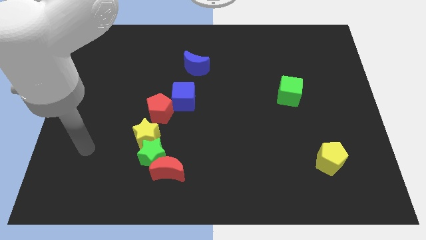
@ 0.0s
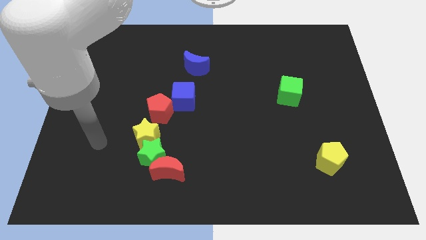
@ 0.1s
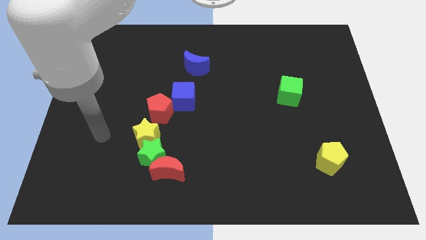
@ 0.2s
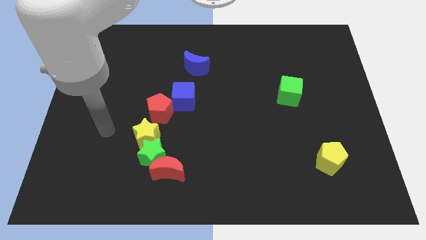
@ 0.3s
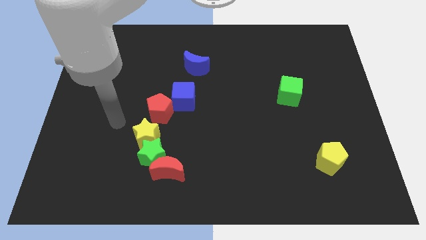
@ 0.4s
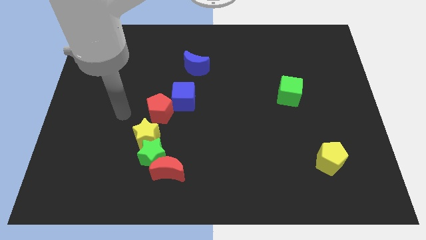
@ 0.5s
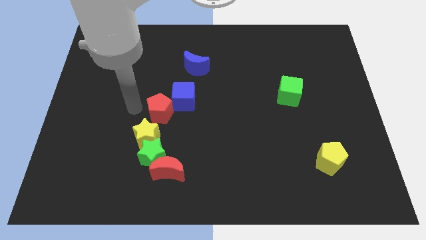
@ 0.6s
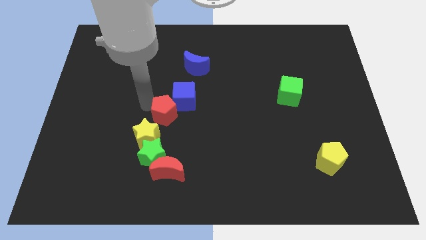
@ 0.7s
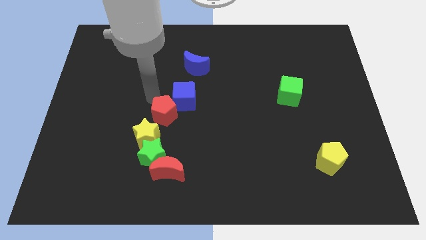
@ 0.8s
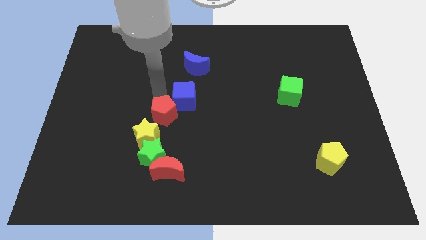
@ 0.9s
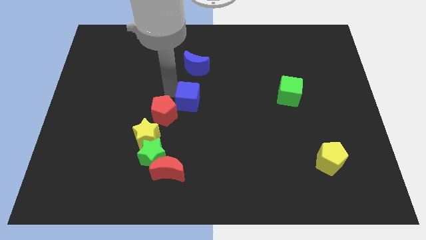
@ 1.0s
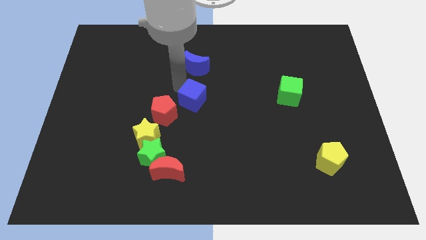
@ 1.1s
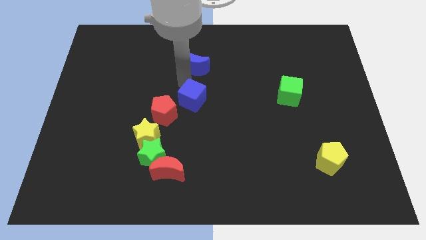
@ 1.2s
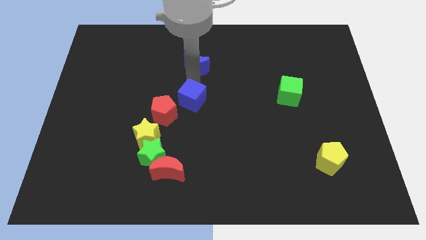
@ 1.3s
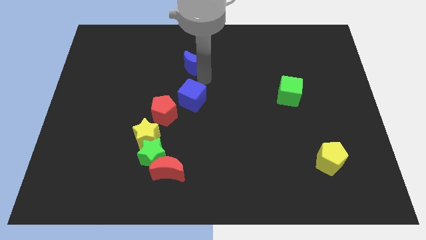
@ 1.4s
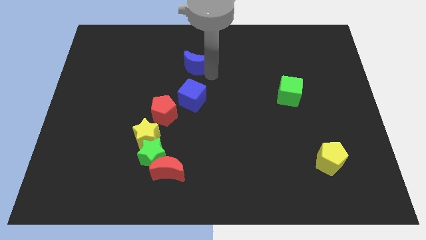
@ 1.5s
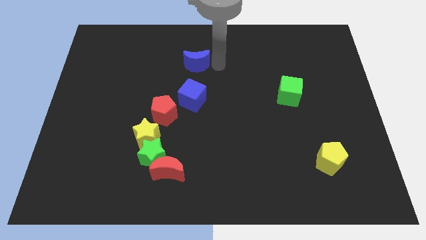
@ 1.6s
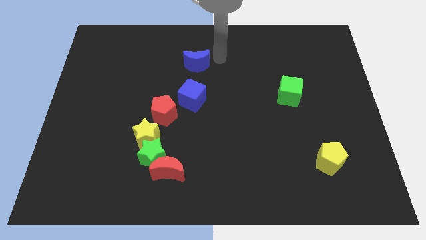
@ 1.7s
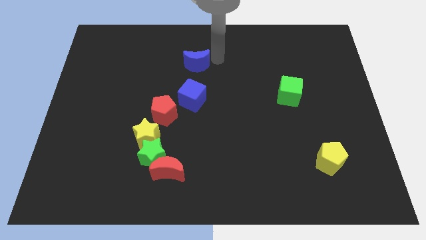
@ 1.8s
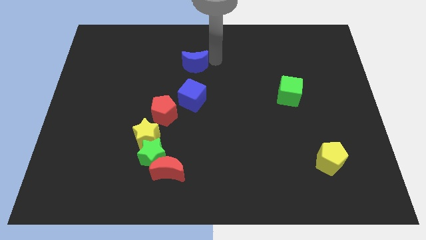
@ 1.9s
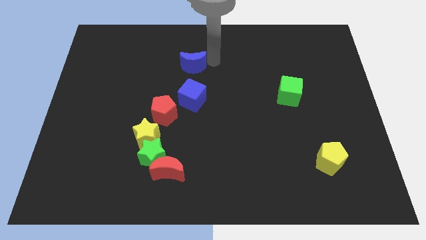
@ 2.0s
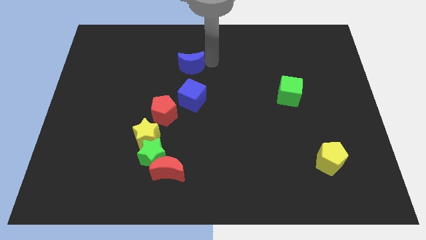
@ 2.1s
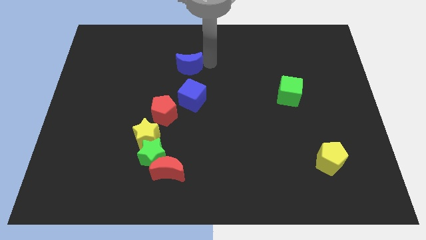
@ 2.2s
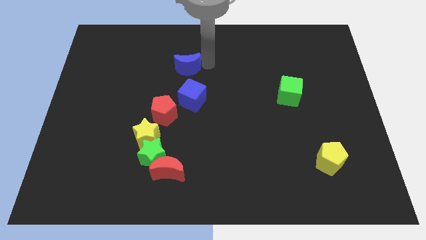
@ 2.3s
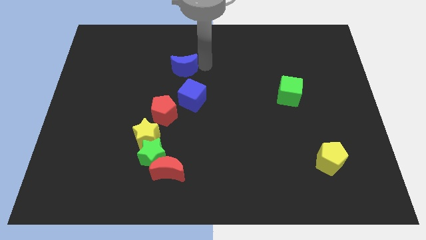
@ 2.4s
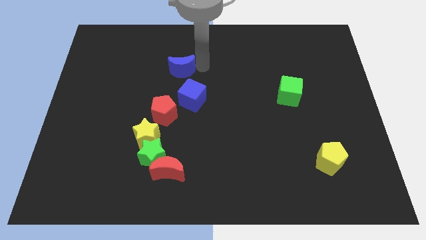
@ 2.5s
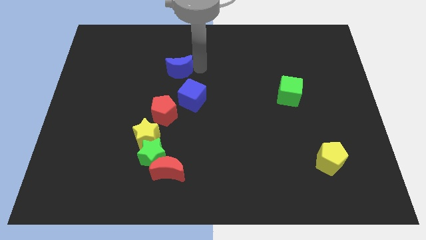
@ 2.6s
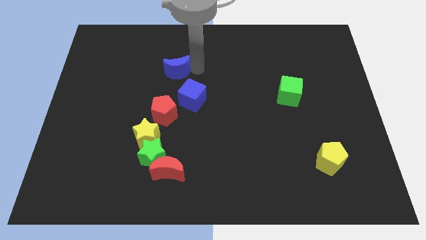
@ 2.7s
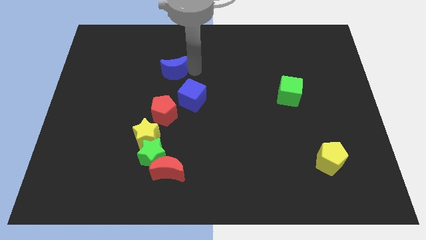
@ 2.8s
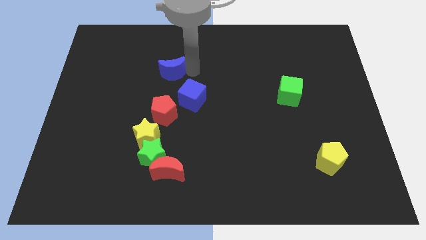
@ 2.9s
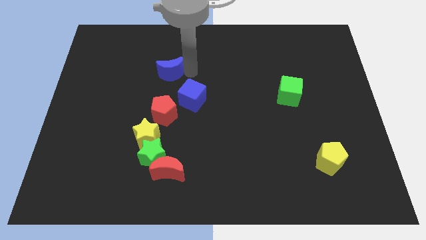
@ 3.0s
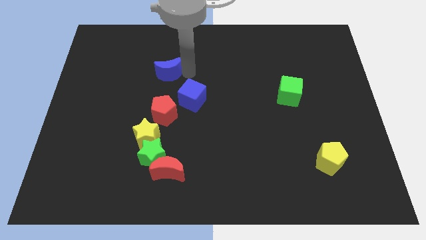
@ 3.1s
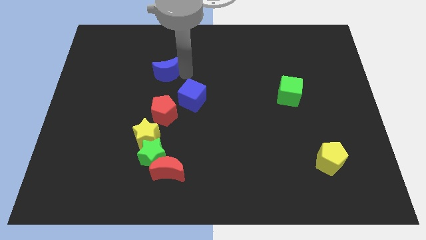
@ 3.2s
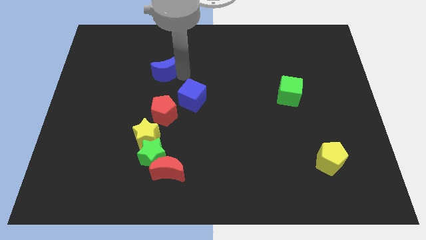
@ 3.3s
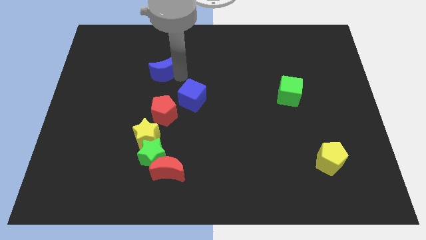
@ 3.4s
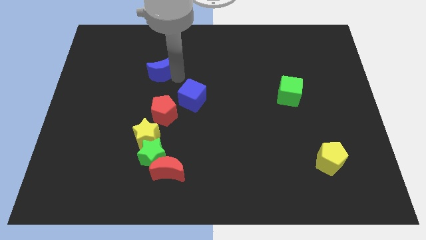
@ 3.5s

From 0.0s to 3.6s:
slightly push the blue moon down and left

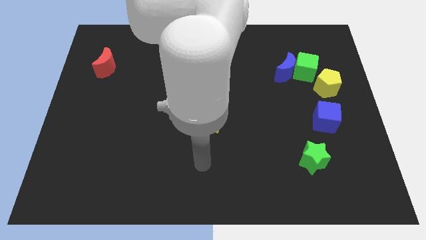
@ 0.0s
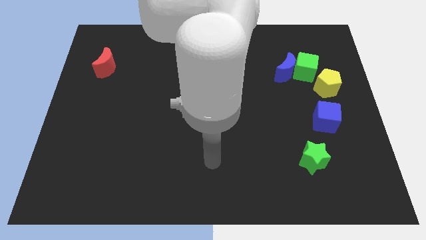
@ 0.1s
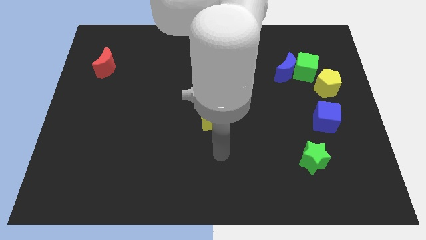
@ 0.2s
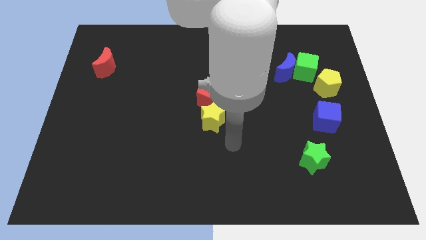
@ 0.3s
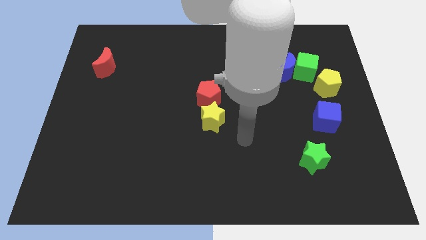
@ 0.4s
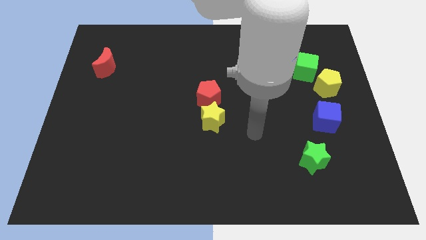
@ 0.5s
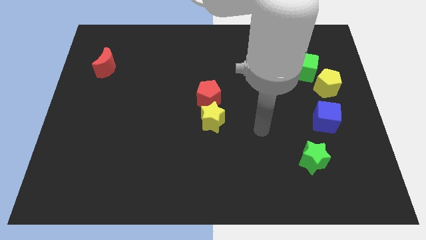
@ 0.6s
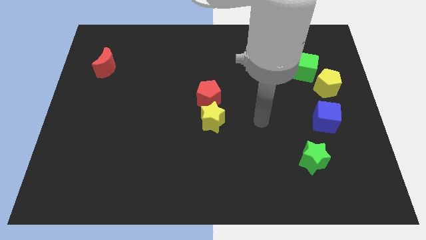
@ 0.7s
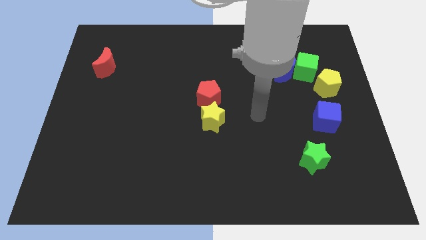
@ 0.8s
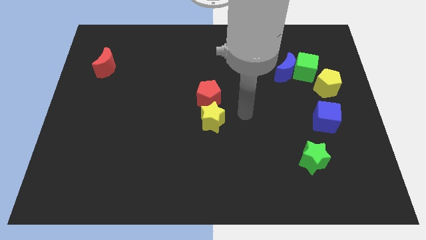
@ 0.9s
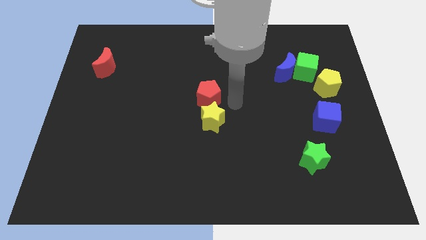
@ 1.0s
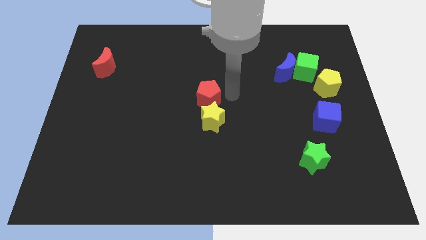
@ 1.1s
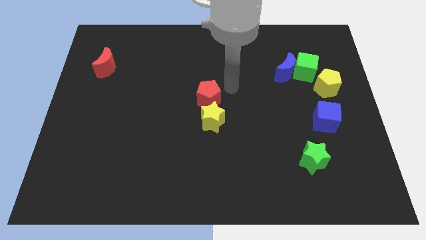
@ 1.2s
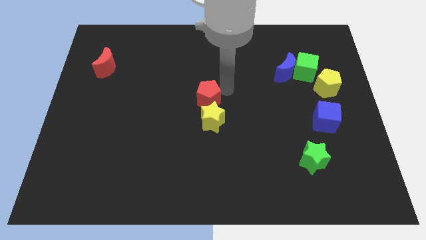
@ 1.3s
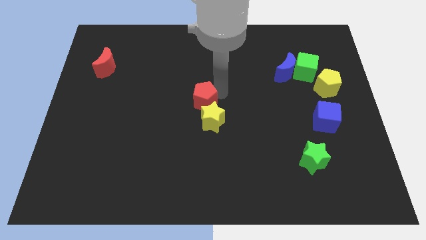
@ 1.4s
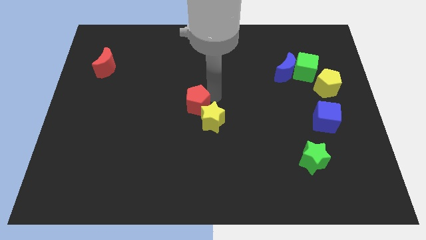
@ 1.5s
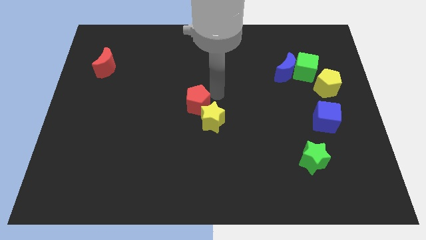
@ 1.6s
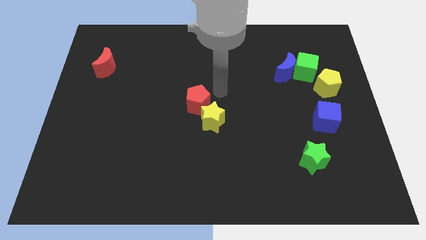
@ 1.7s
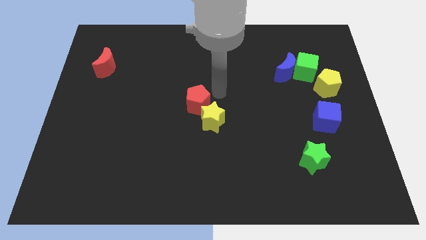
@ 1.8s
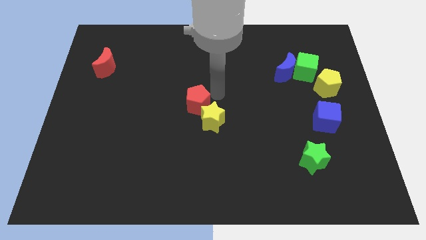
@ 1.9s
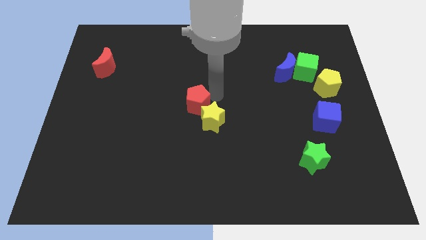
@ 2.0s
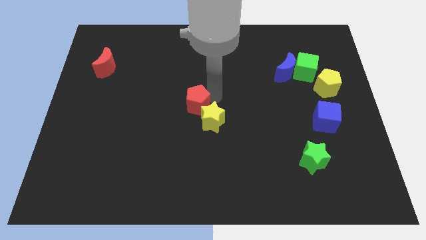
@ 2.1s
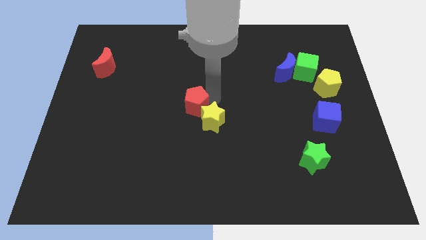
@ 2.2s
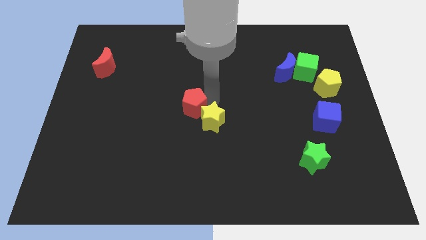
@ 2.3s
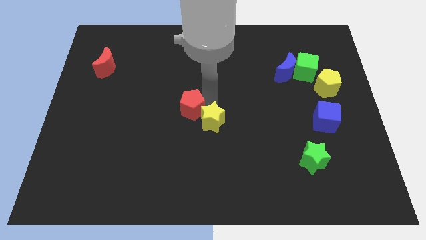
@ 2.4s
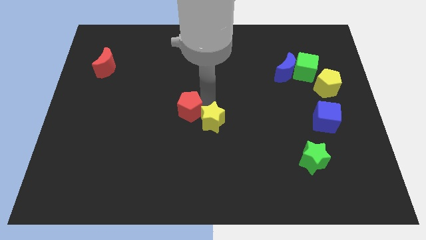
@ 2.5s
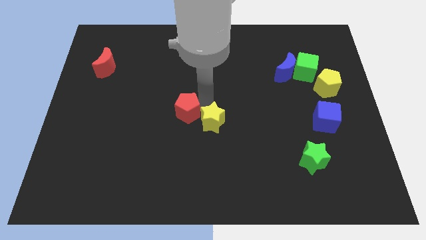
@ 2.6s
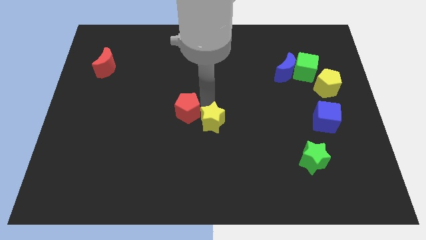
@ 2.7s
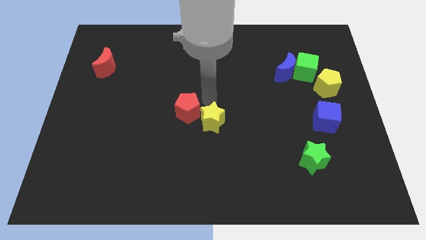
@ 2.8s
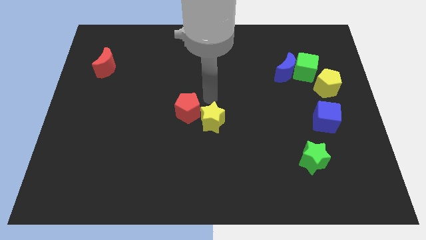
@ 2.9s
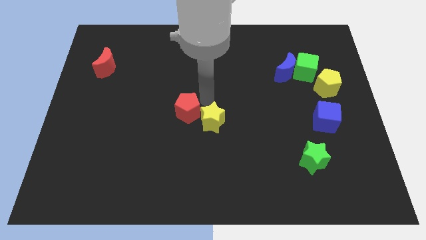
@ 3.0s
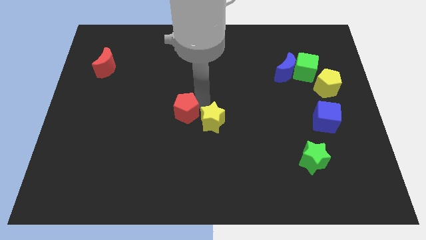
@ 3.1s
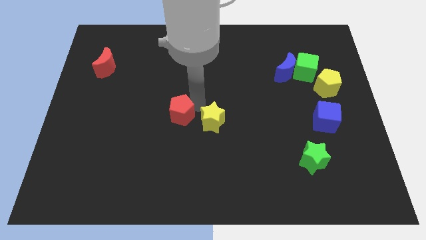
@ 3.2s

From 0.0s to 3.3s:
push the red pentagon downwards and left diagonally somewhat

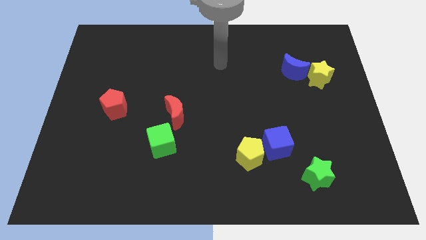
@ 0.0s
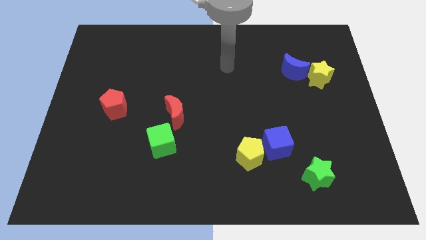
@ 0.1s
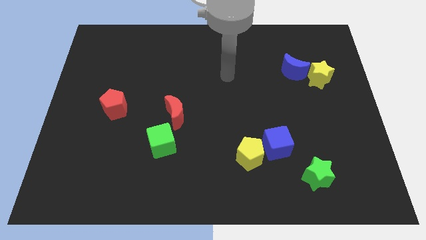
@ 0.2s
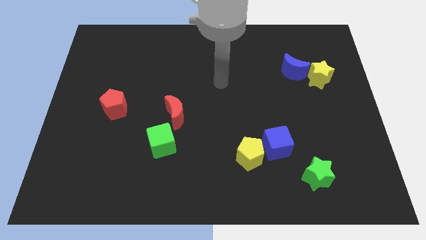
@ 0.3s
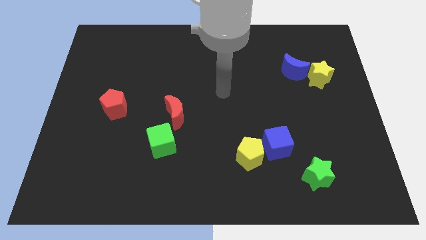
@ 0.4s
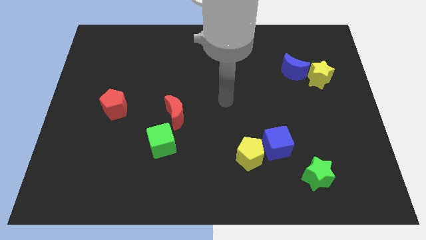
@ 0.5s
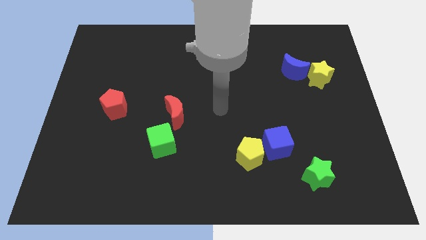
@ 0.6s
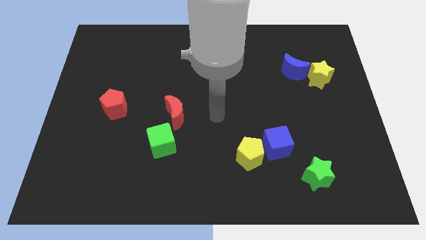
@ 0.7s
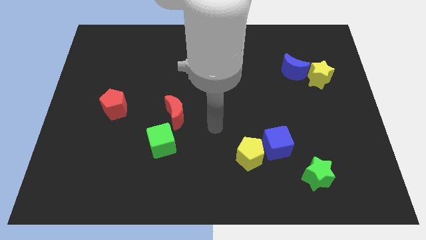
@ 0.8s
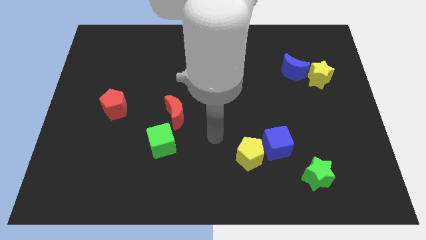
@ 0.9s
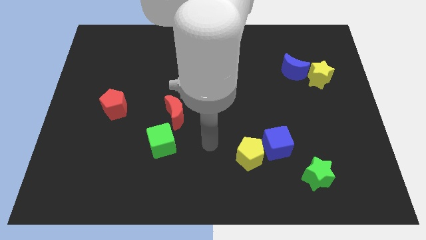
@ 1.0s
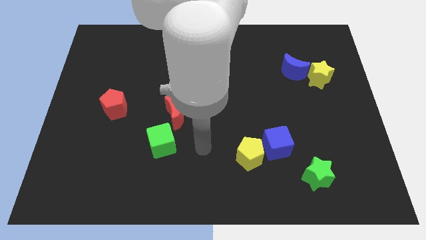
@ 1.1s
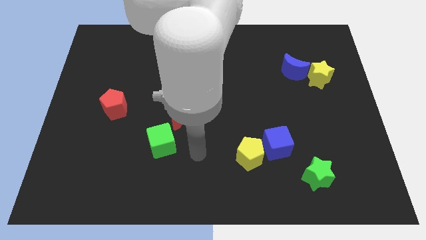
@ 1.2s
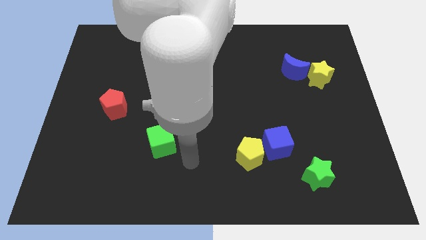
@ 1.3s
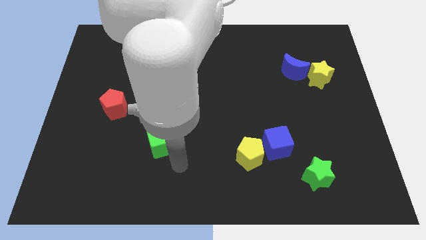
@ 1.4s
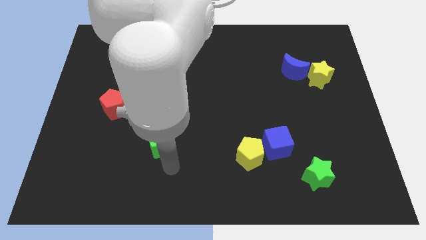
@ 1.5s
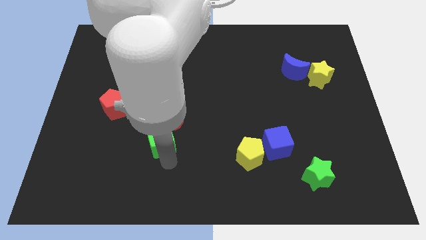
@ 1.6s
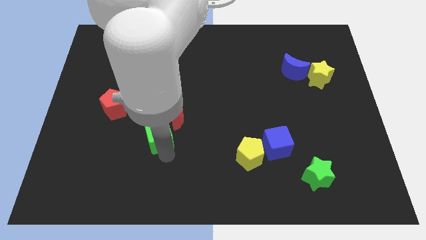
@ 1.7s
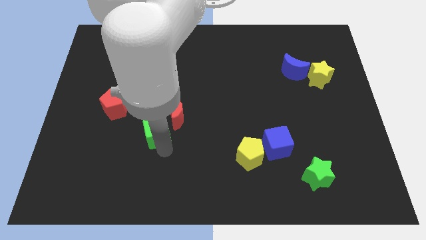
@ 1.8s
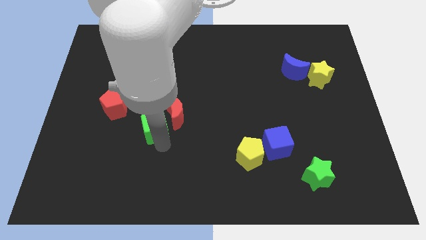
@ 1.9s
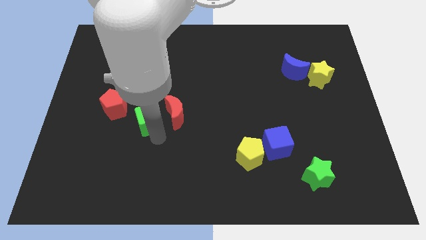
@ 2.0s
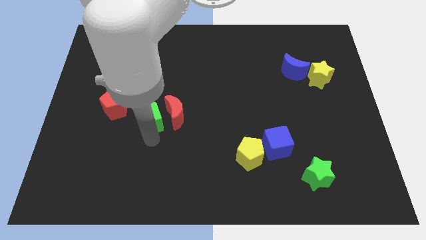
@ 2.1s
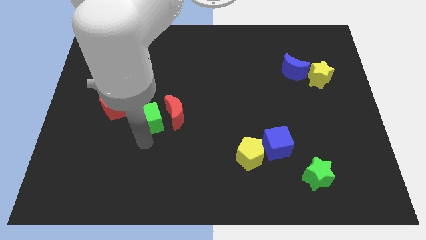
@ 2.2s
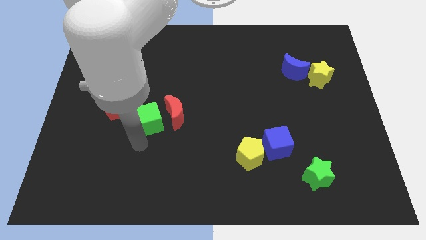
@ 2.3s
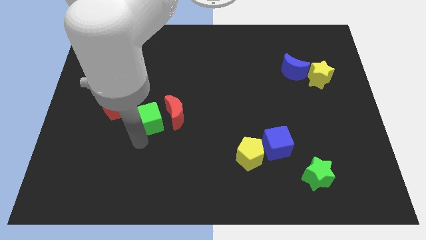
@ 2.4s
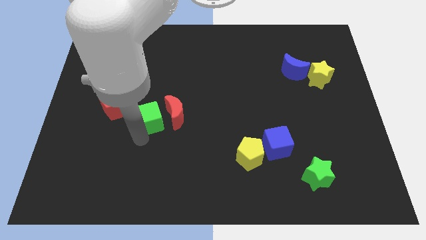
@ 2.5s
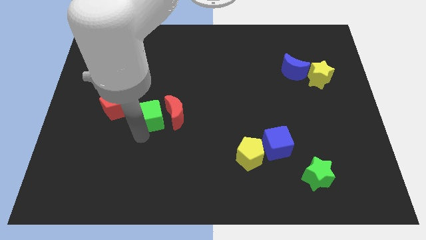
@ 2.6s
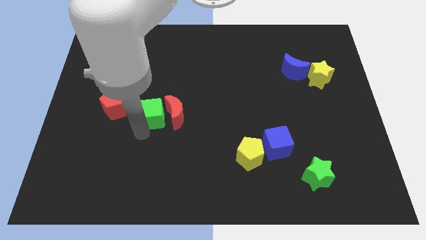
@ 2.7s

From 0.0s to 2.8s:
slide the green cube upwards a bit
